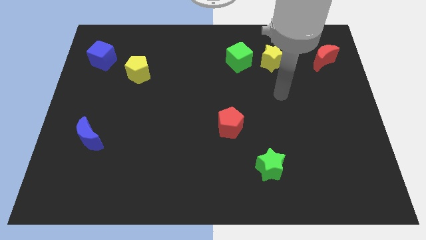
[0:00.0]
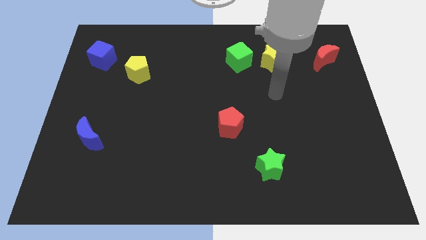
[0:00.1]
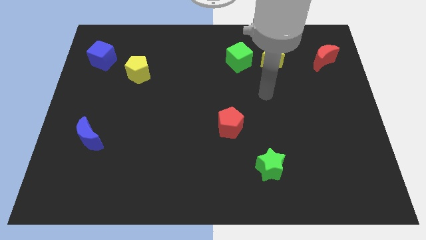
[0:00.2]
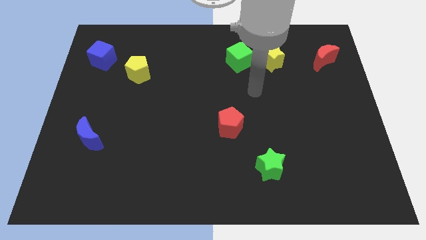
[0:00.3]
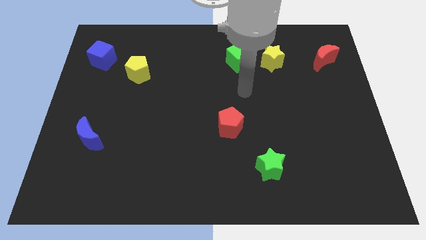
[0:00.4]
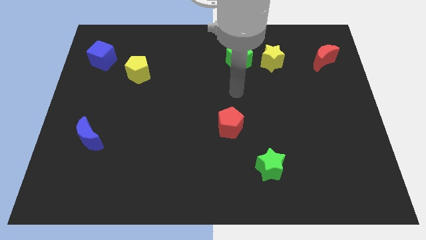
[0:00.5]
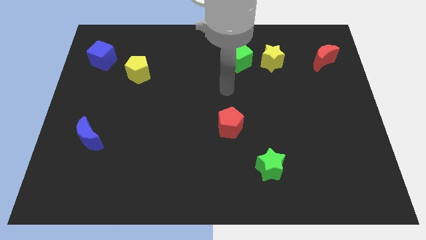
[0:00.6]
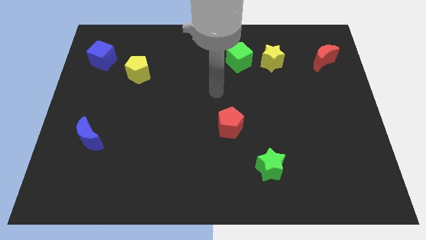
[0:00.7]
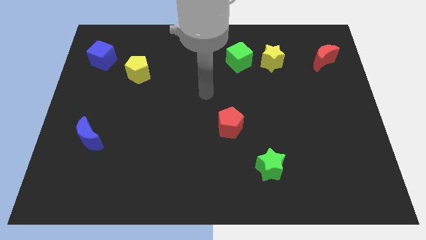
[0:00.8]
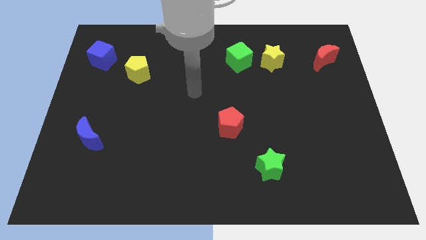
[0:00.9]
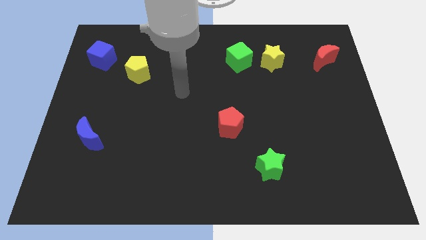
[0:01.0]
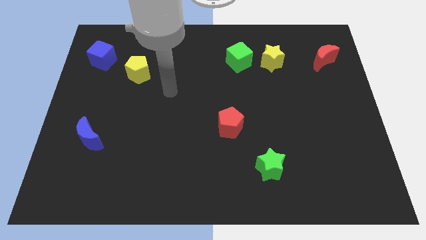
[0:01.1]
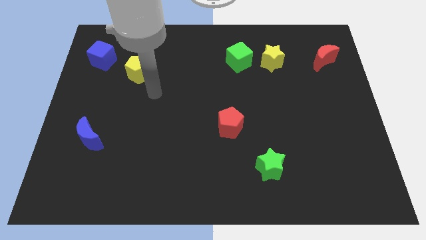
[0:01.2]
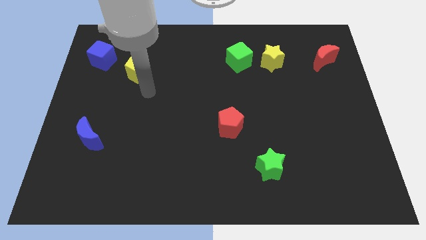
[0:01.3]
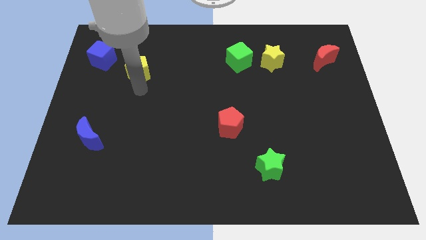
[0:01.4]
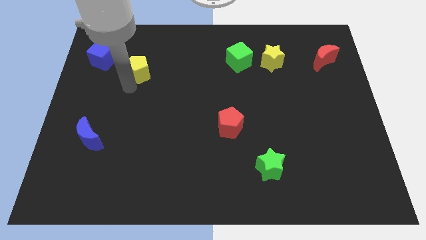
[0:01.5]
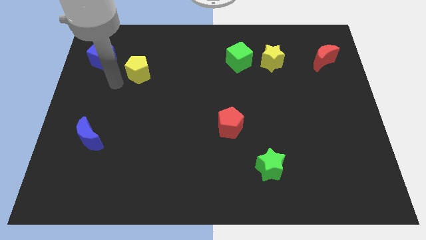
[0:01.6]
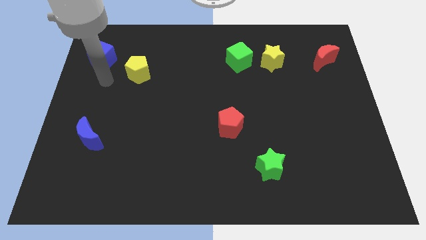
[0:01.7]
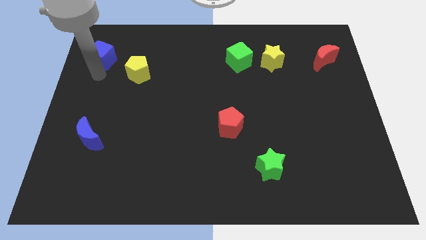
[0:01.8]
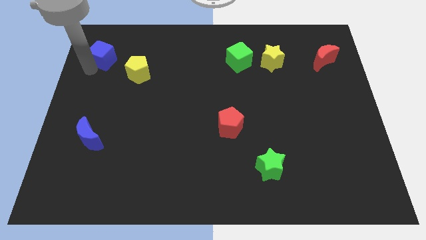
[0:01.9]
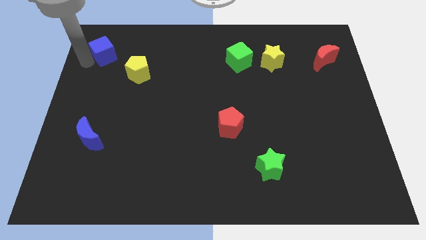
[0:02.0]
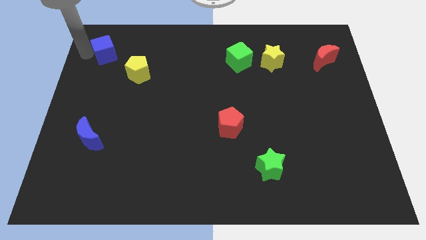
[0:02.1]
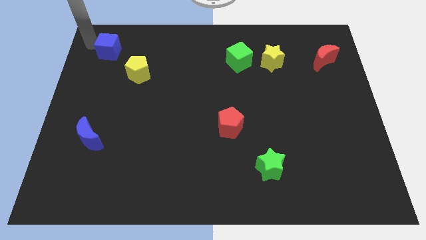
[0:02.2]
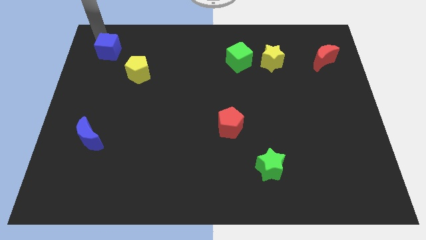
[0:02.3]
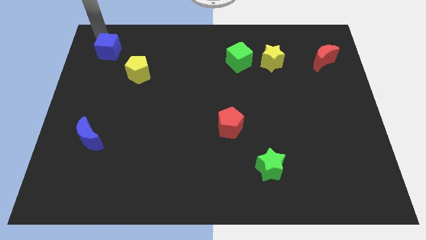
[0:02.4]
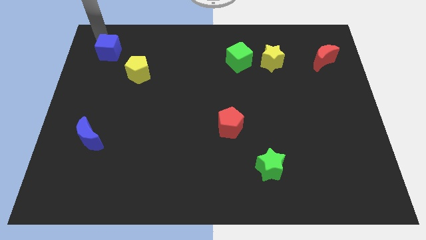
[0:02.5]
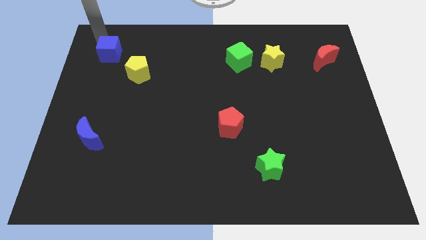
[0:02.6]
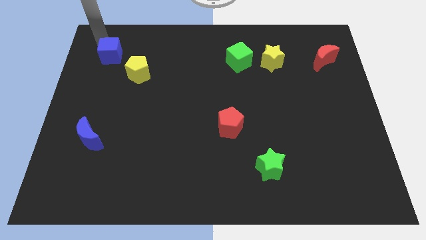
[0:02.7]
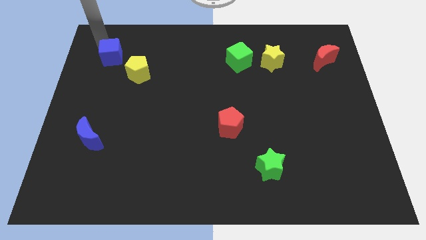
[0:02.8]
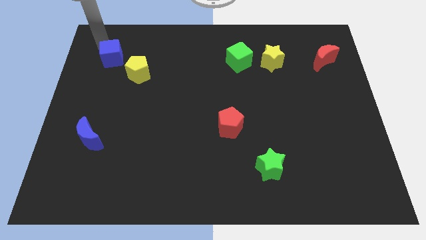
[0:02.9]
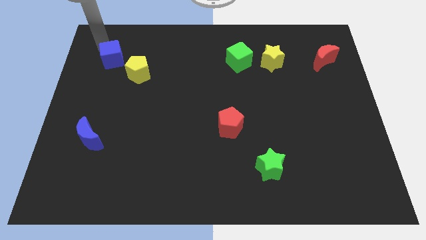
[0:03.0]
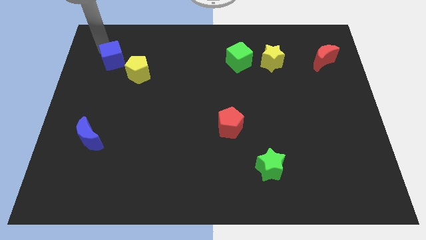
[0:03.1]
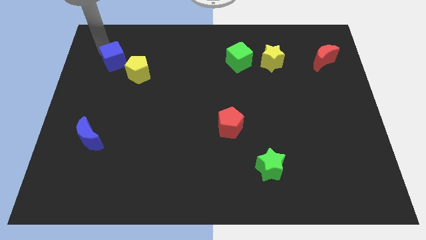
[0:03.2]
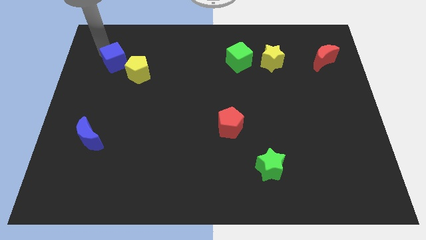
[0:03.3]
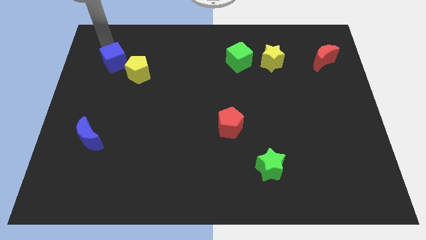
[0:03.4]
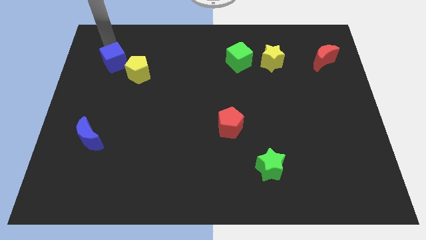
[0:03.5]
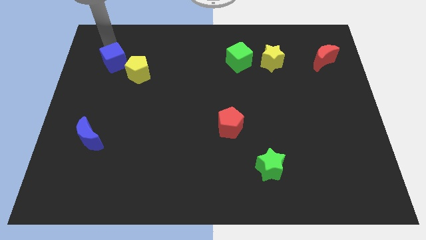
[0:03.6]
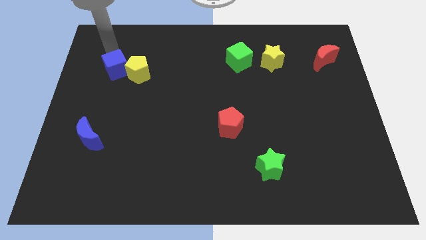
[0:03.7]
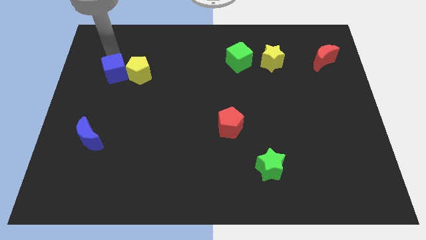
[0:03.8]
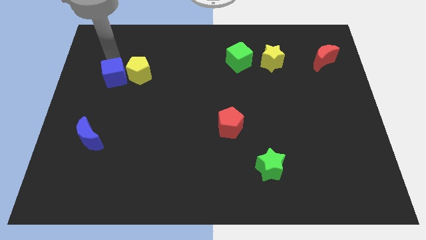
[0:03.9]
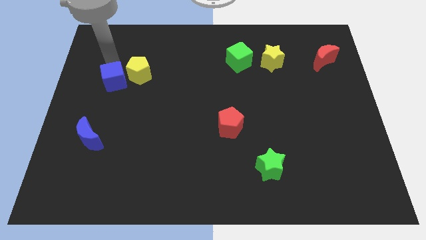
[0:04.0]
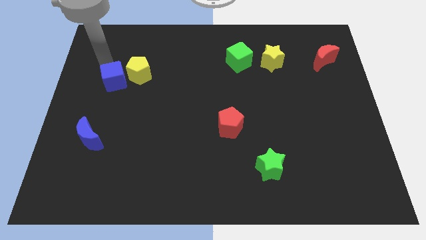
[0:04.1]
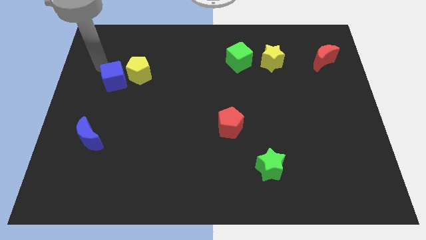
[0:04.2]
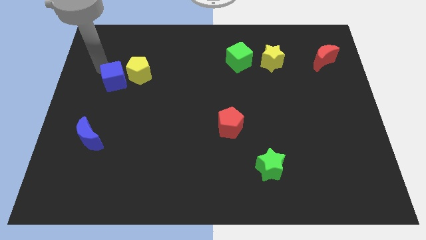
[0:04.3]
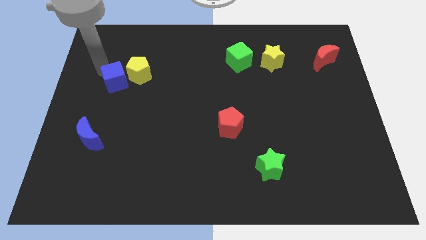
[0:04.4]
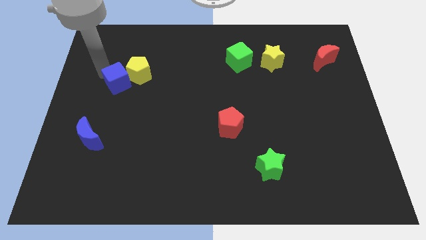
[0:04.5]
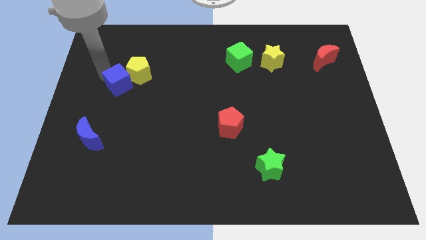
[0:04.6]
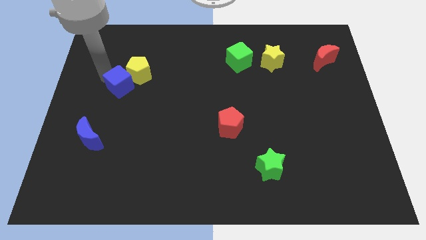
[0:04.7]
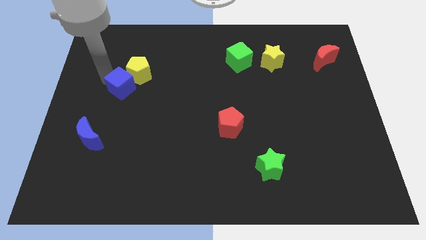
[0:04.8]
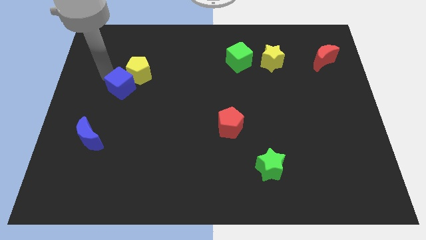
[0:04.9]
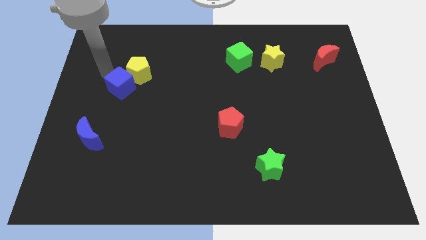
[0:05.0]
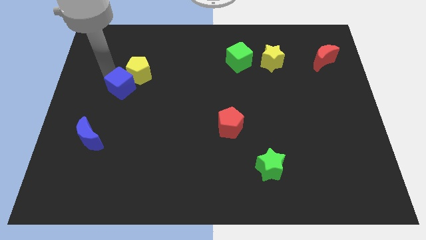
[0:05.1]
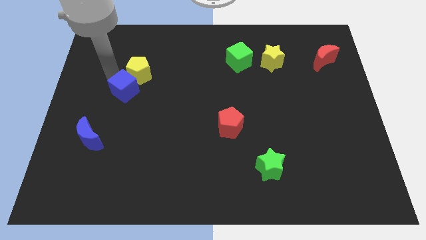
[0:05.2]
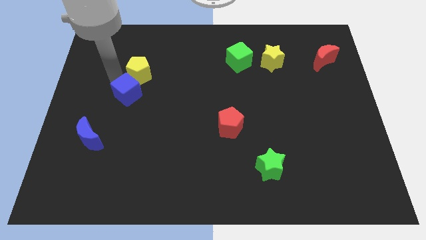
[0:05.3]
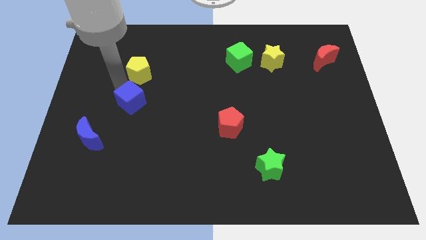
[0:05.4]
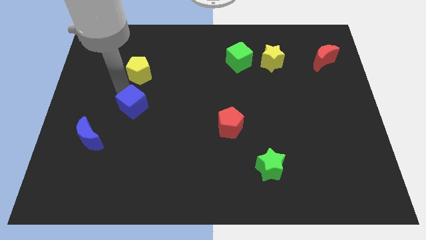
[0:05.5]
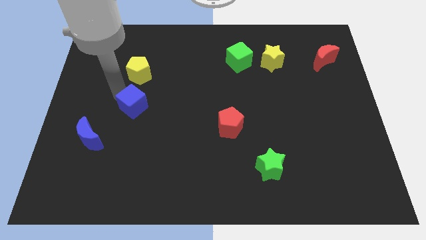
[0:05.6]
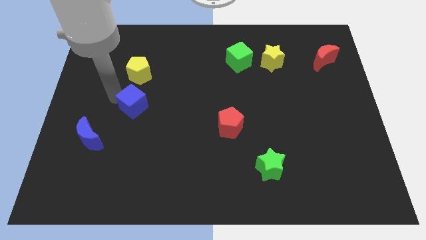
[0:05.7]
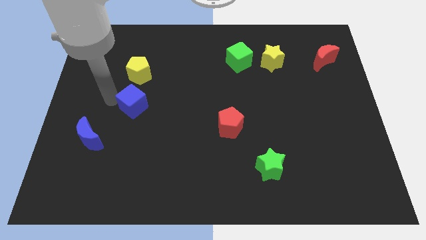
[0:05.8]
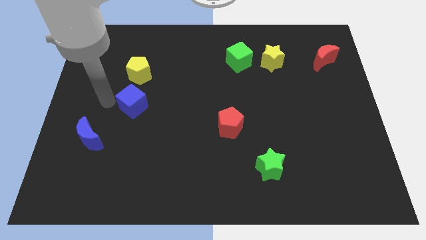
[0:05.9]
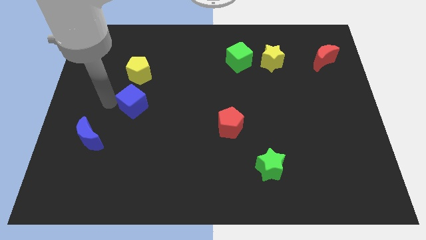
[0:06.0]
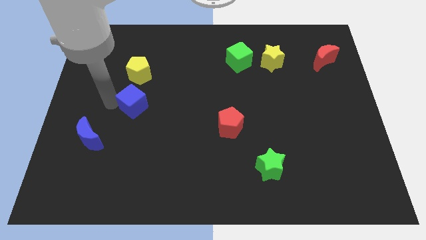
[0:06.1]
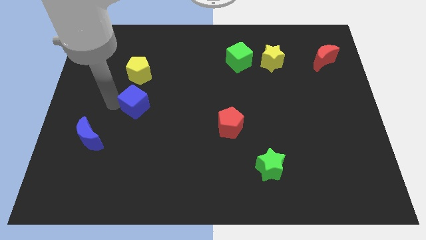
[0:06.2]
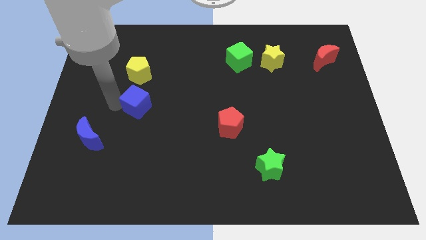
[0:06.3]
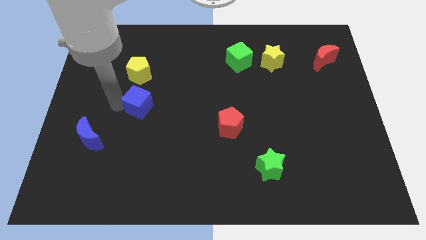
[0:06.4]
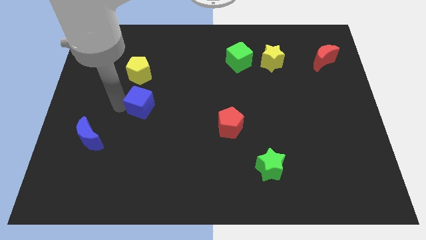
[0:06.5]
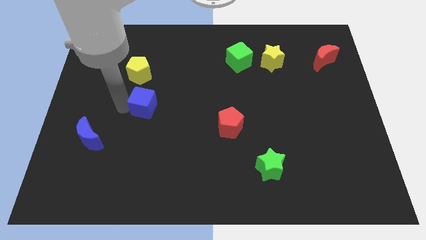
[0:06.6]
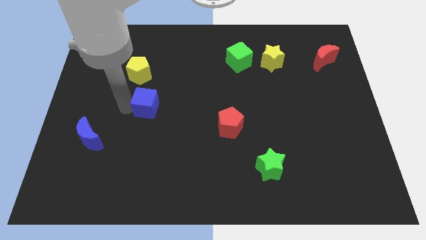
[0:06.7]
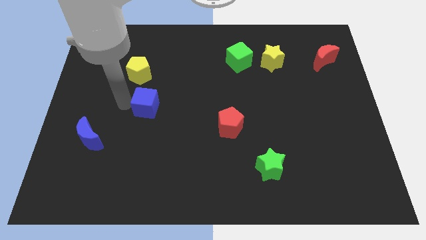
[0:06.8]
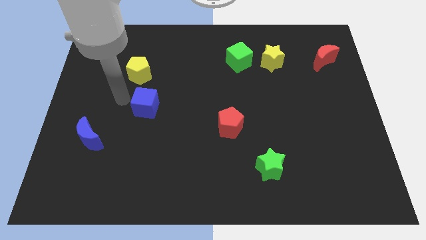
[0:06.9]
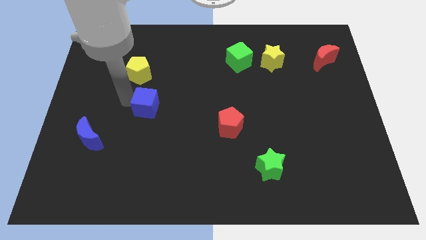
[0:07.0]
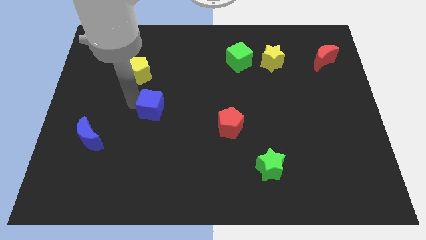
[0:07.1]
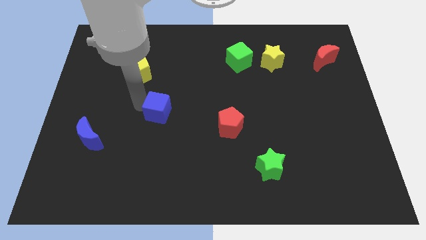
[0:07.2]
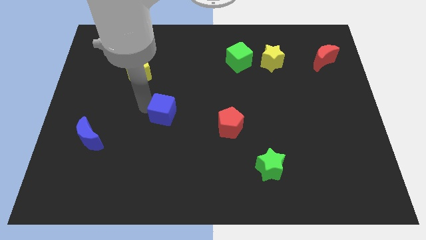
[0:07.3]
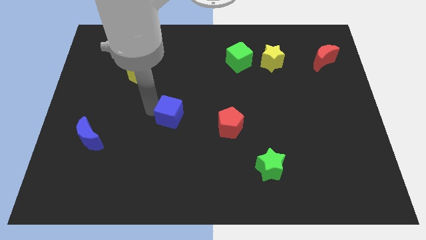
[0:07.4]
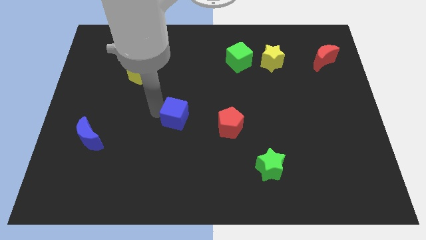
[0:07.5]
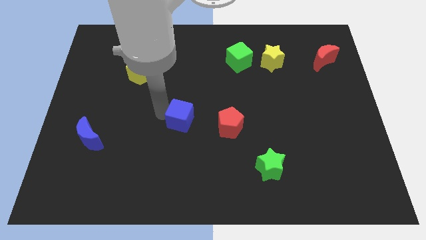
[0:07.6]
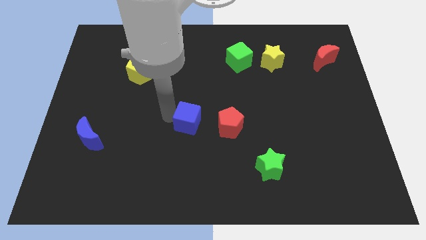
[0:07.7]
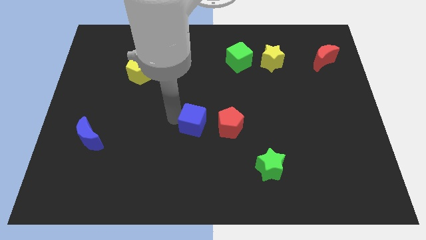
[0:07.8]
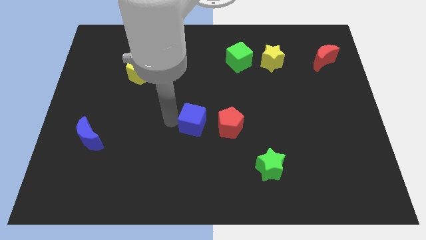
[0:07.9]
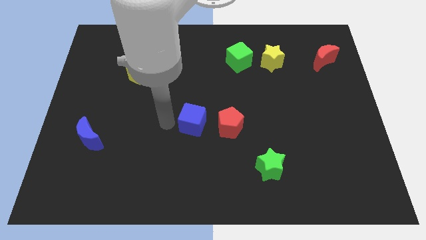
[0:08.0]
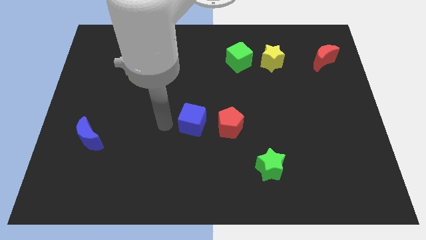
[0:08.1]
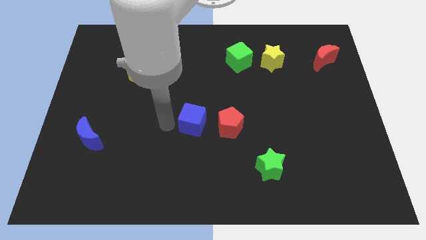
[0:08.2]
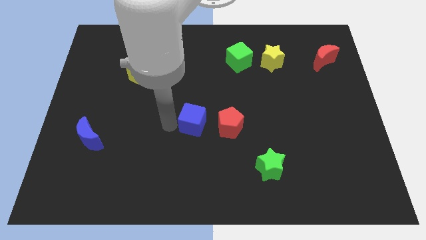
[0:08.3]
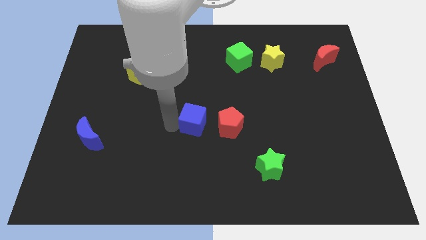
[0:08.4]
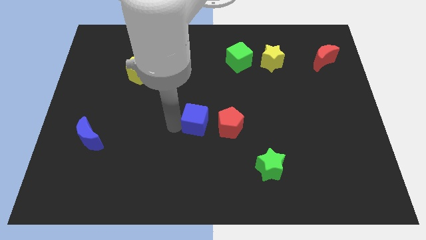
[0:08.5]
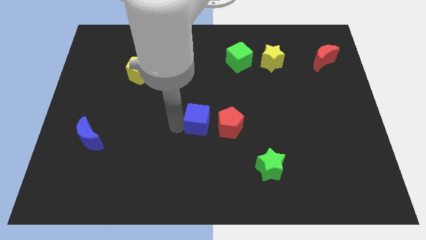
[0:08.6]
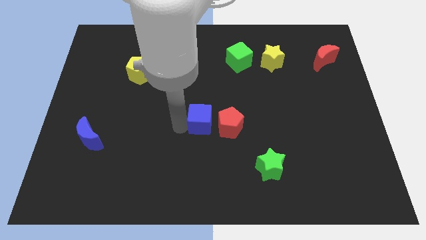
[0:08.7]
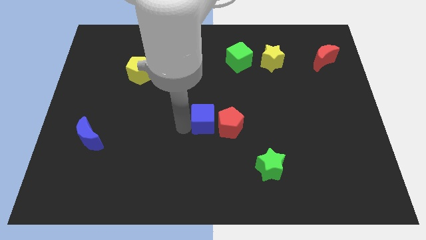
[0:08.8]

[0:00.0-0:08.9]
put the blue cube to the red pentagon
